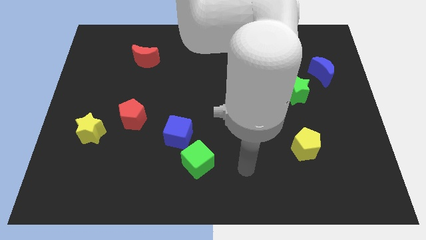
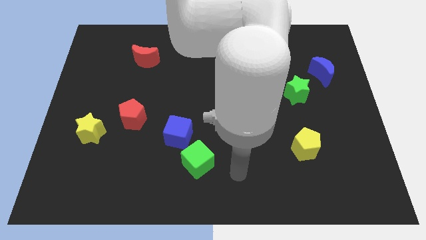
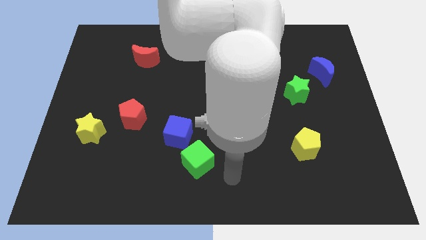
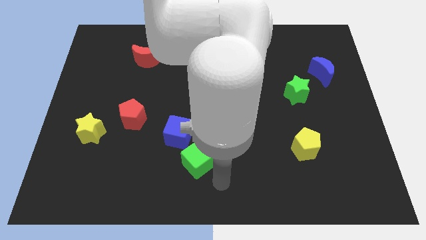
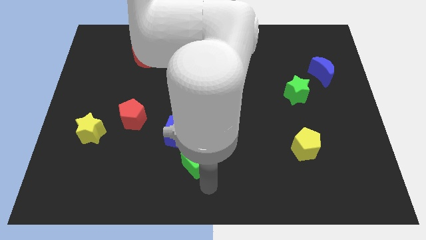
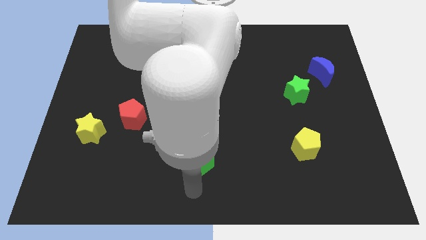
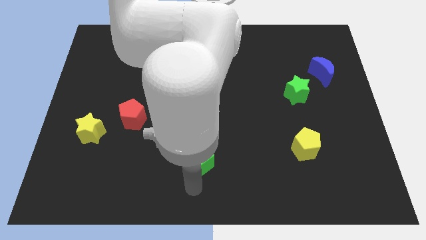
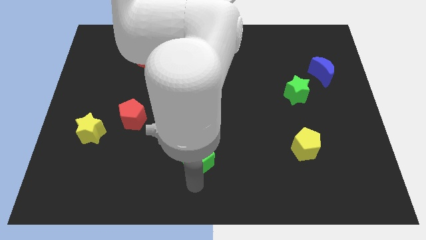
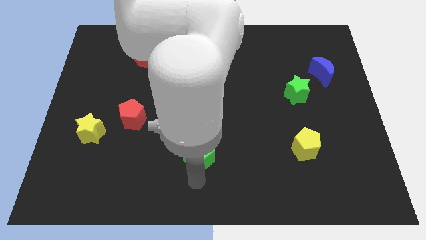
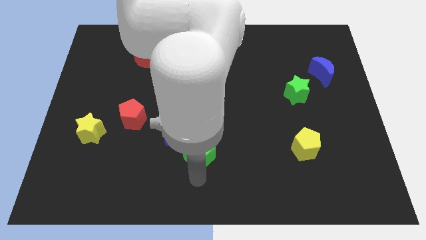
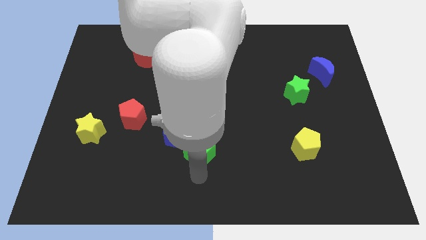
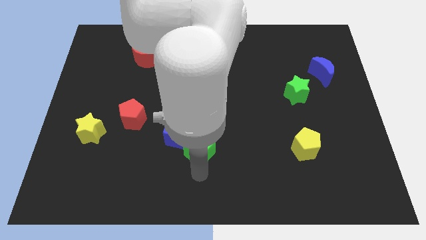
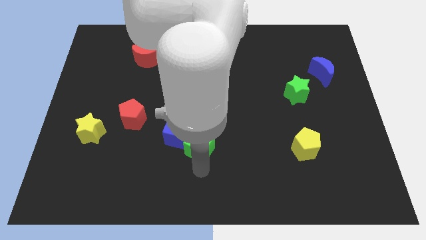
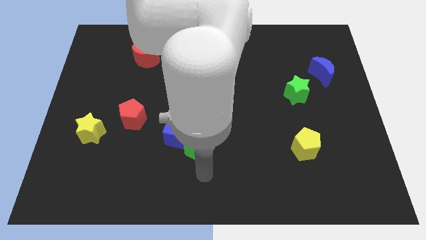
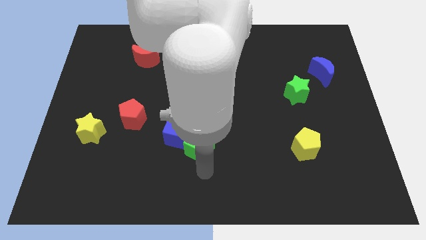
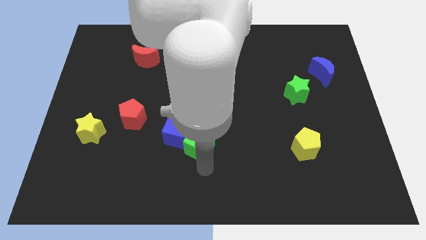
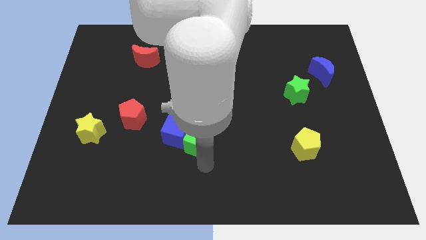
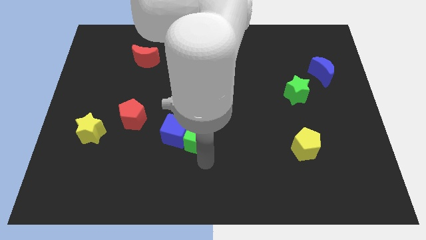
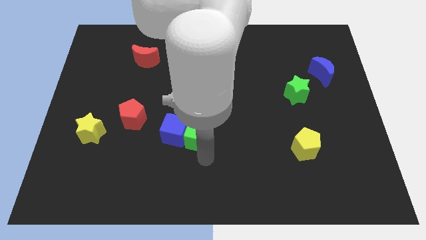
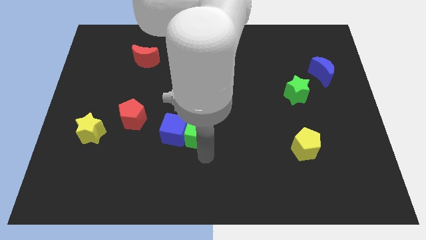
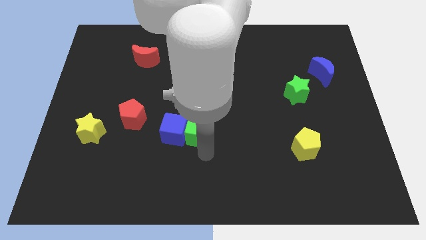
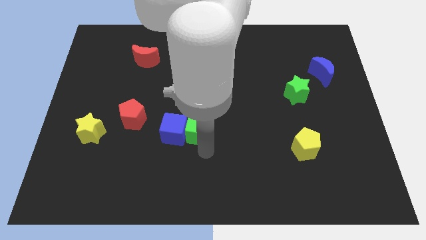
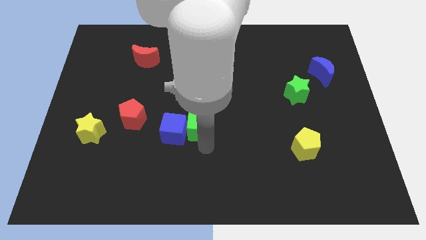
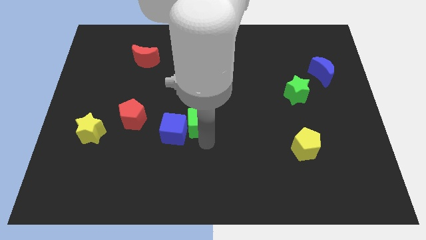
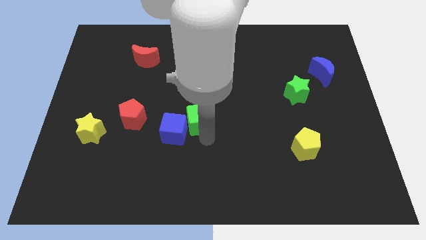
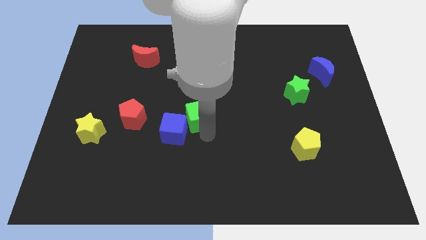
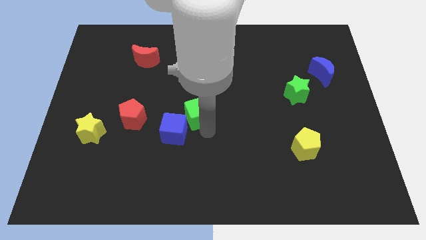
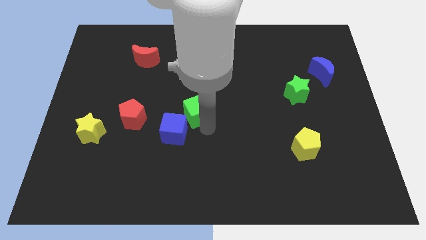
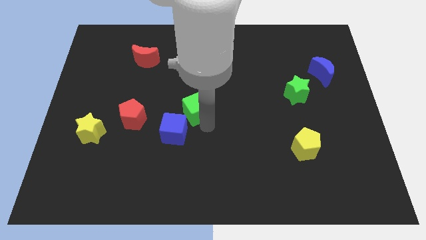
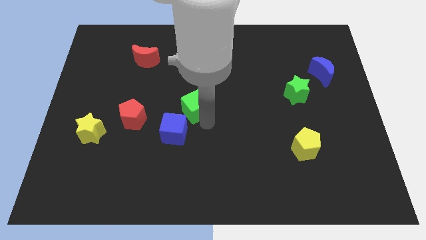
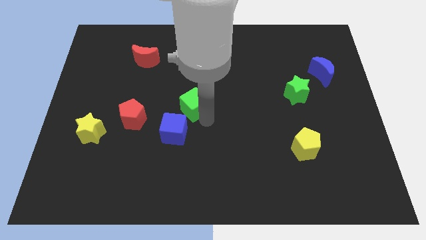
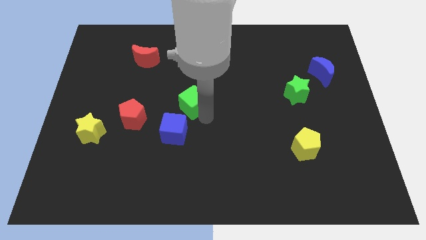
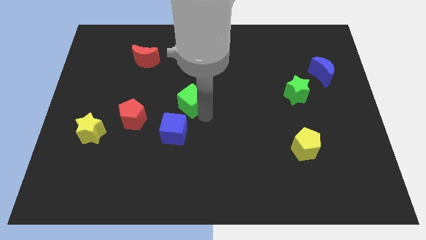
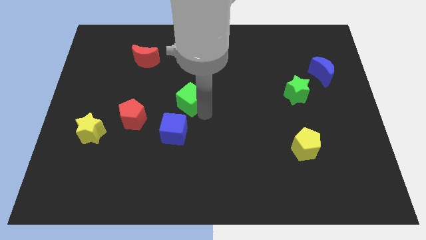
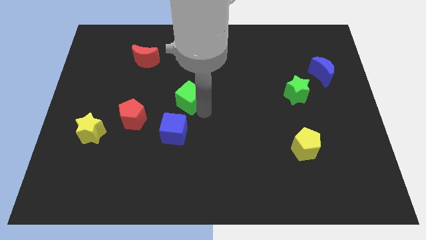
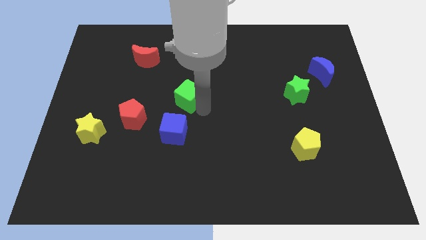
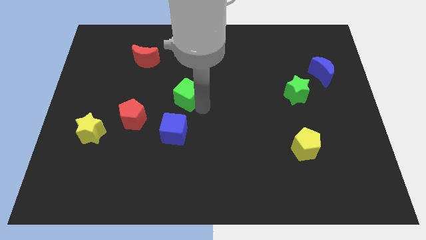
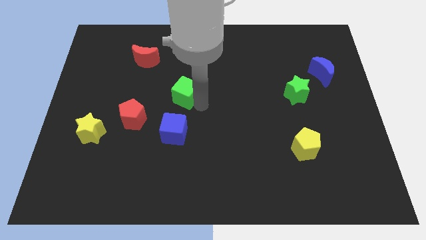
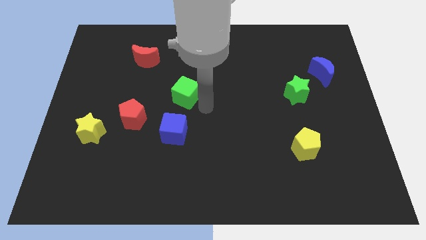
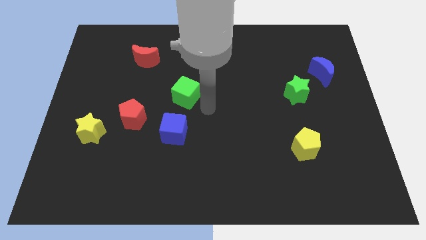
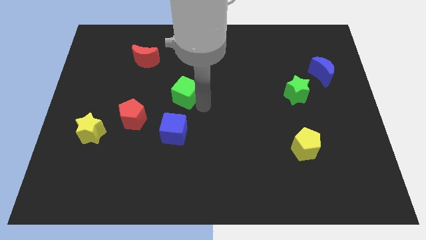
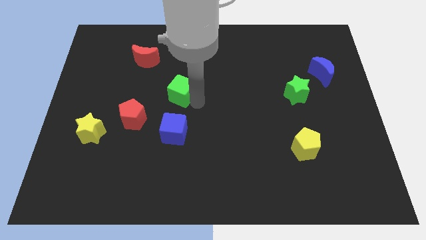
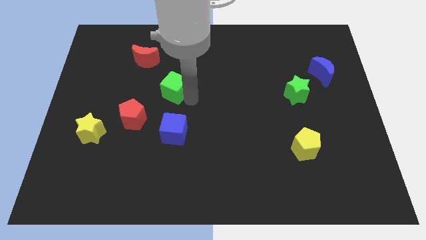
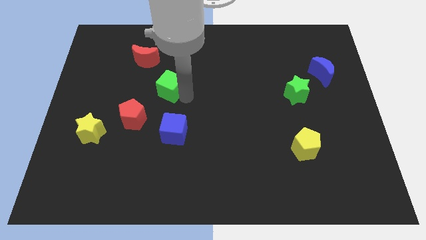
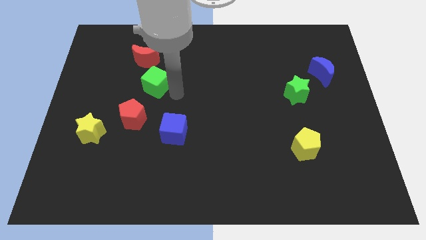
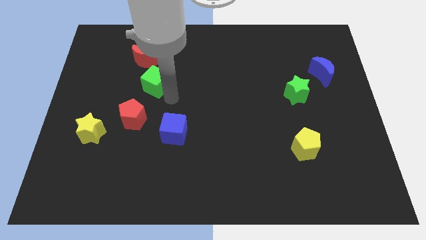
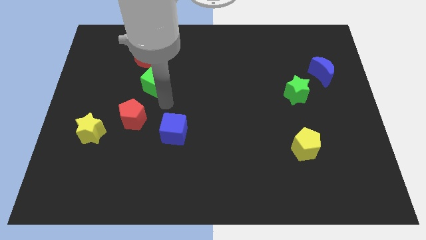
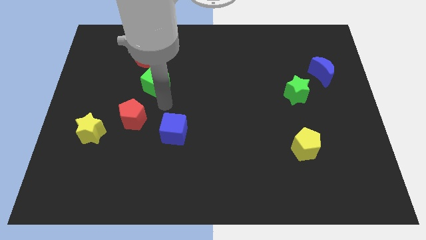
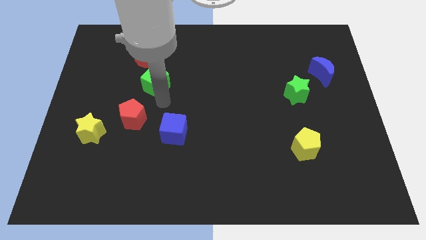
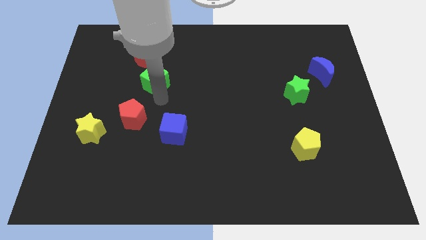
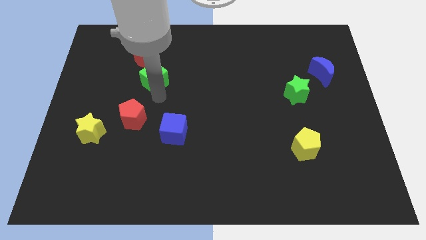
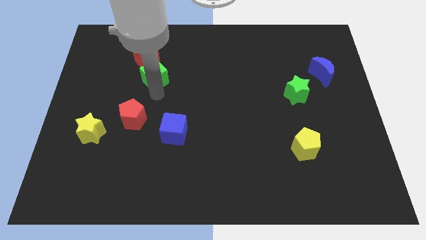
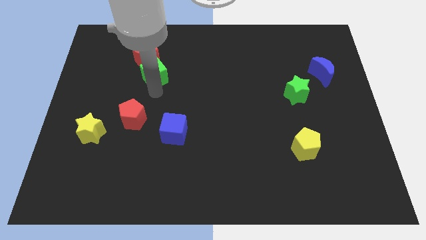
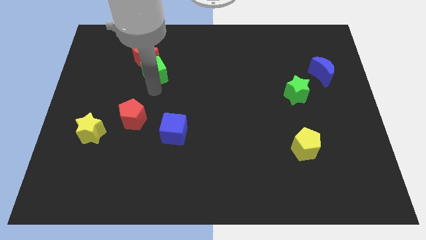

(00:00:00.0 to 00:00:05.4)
put the green cube next to the red moon
